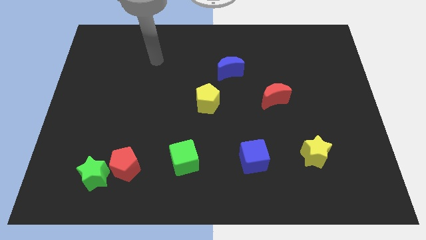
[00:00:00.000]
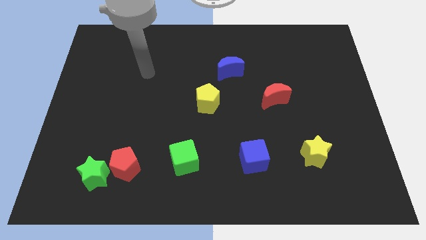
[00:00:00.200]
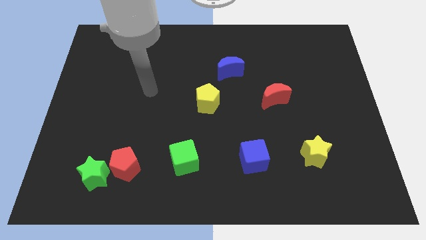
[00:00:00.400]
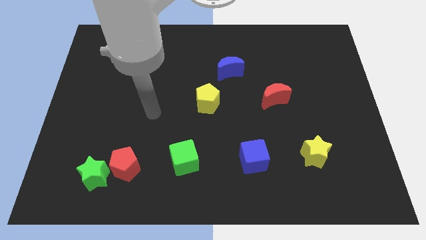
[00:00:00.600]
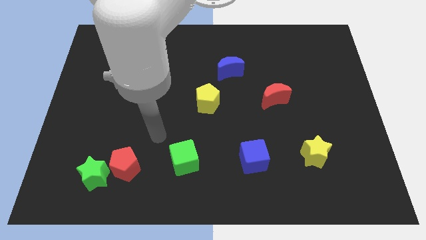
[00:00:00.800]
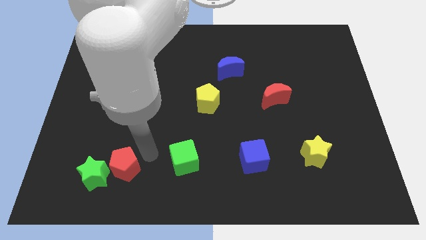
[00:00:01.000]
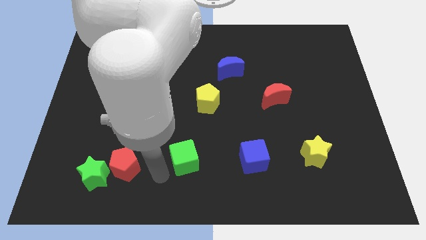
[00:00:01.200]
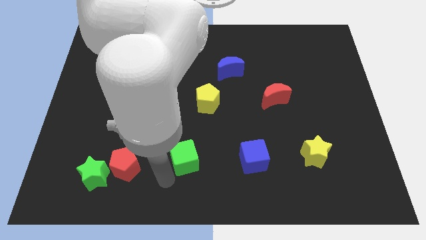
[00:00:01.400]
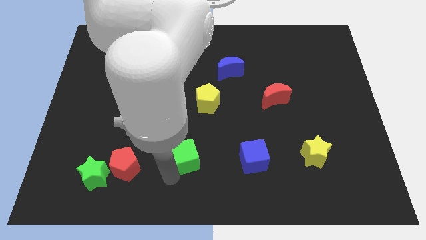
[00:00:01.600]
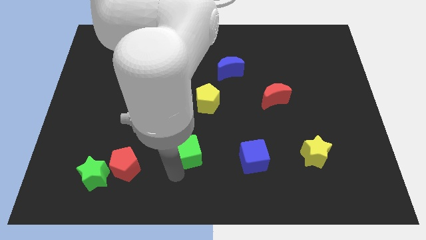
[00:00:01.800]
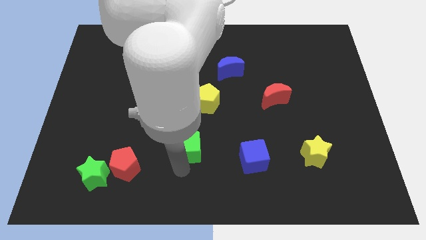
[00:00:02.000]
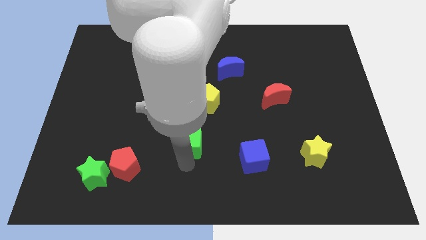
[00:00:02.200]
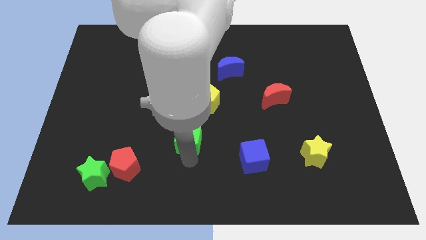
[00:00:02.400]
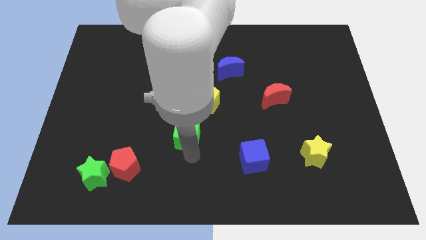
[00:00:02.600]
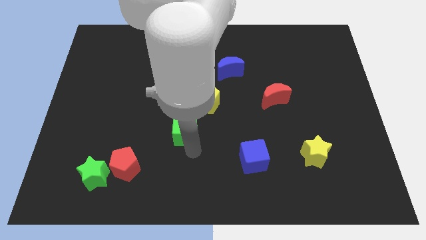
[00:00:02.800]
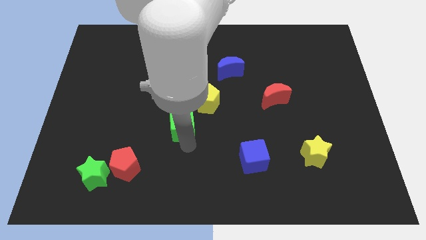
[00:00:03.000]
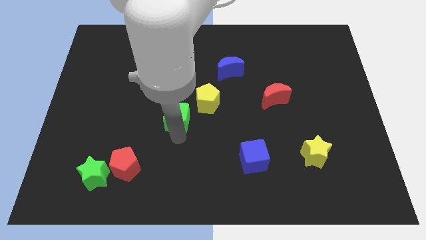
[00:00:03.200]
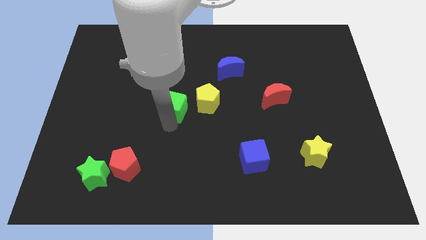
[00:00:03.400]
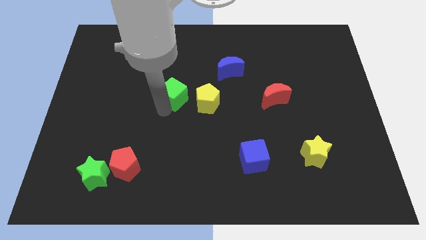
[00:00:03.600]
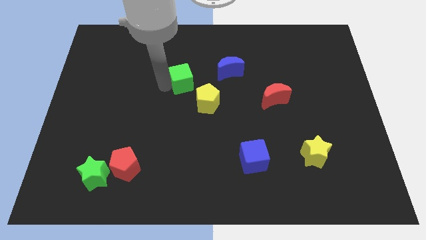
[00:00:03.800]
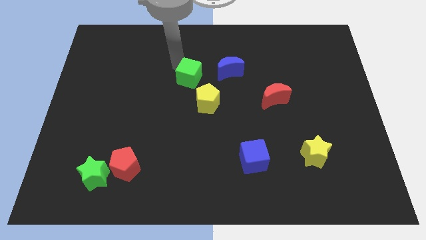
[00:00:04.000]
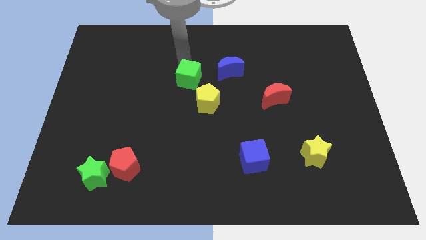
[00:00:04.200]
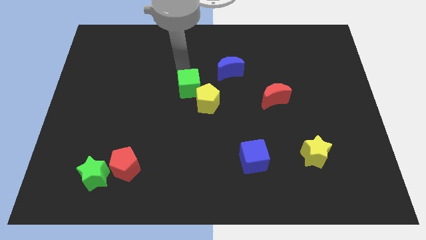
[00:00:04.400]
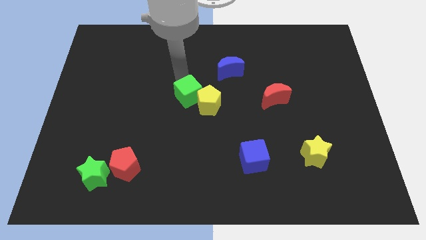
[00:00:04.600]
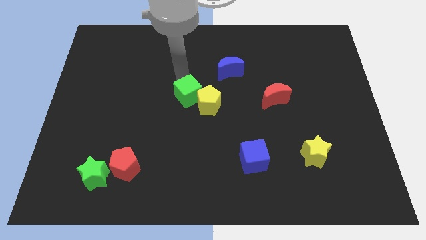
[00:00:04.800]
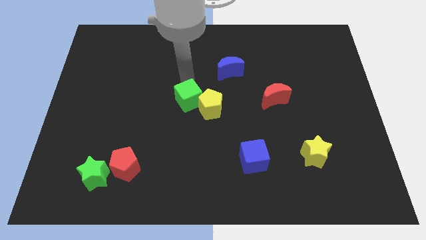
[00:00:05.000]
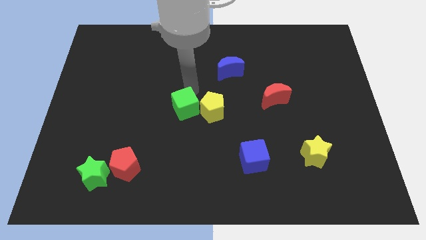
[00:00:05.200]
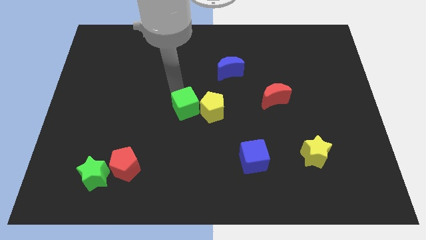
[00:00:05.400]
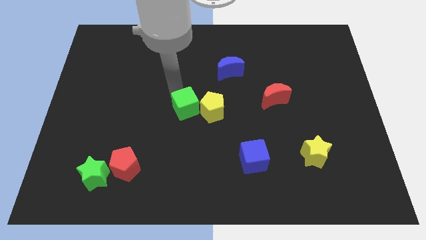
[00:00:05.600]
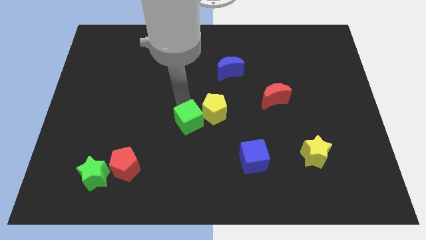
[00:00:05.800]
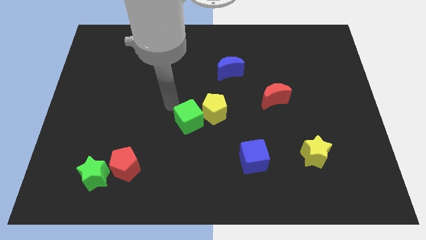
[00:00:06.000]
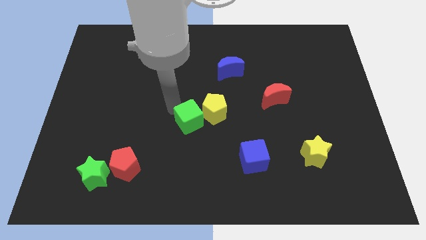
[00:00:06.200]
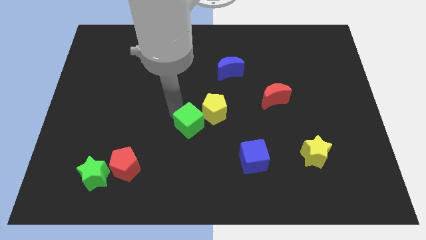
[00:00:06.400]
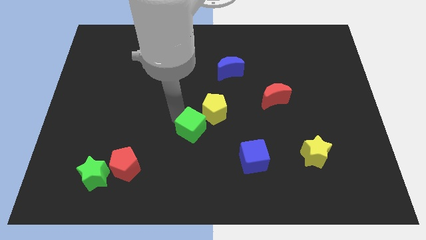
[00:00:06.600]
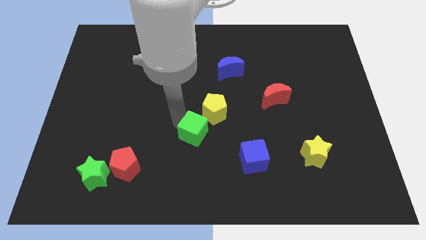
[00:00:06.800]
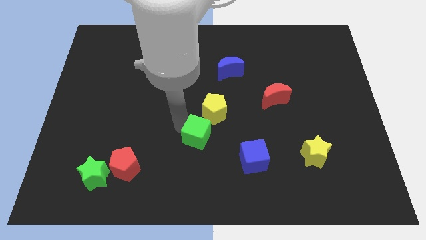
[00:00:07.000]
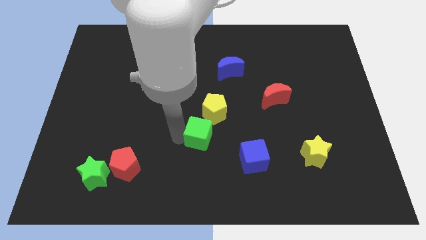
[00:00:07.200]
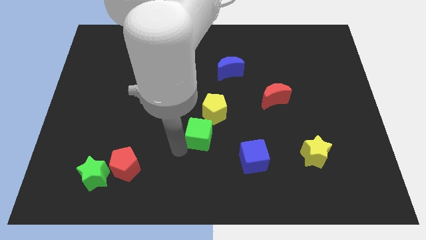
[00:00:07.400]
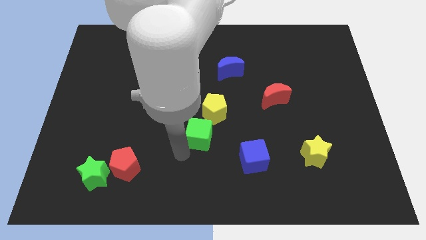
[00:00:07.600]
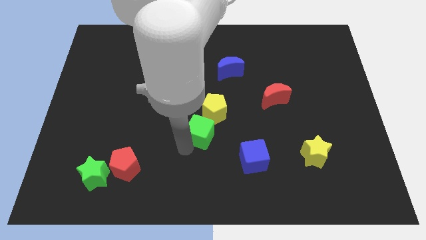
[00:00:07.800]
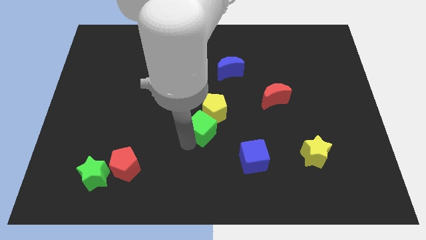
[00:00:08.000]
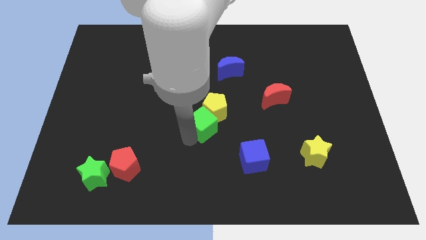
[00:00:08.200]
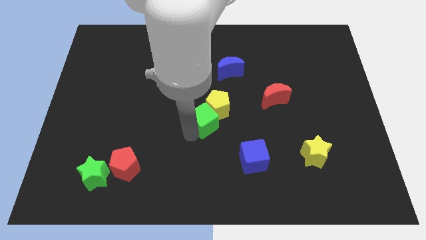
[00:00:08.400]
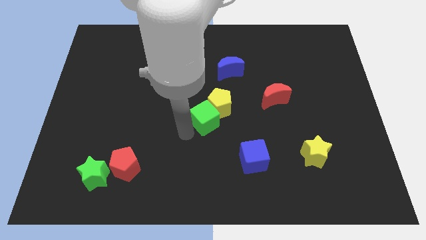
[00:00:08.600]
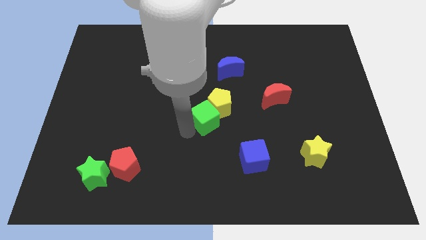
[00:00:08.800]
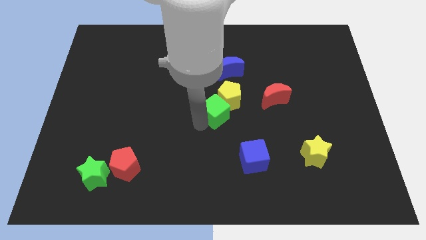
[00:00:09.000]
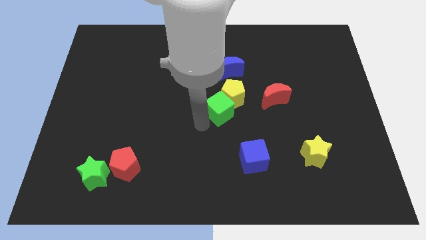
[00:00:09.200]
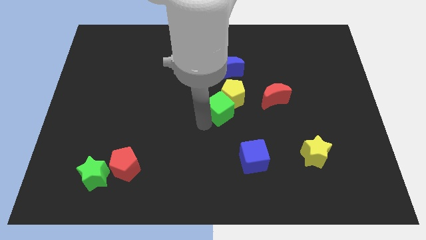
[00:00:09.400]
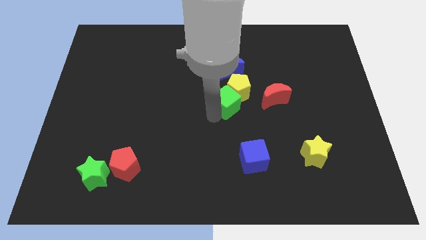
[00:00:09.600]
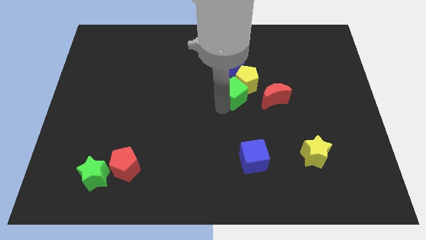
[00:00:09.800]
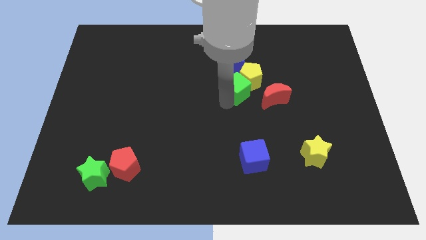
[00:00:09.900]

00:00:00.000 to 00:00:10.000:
move the green cube to the bottom right side of the blue moon

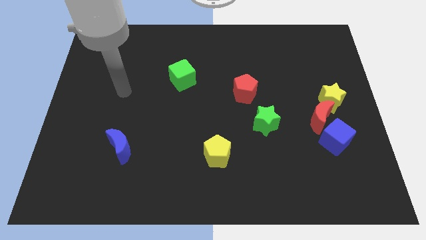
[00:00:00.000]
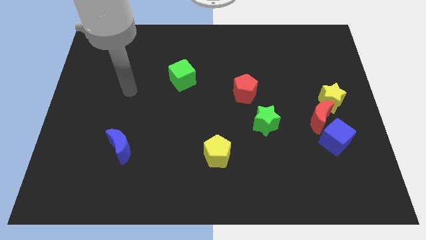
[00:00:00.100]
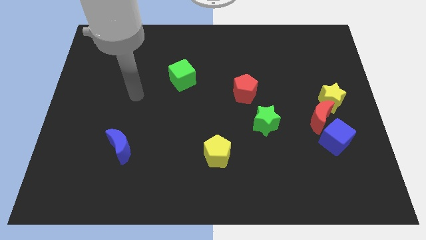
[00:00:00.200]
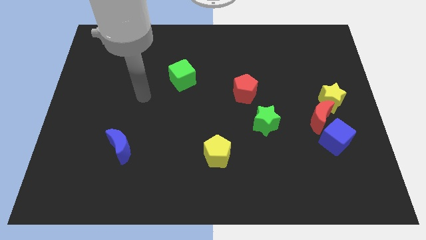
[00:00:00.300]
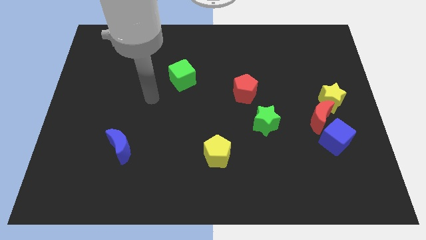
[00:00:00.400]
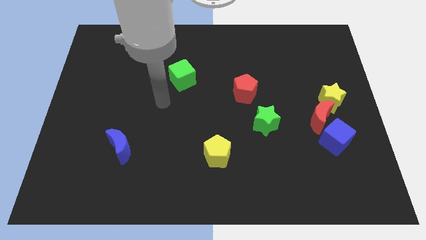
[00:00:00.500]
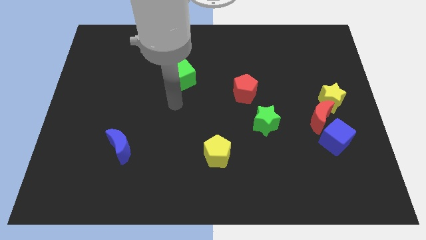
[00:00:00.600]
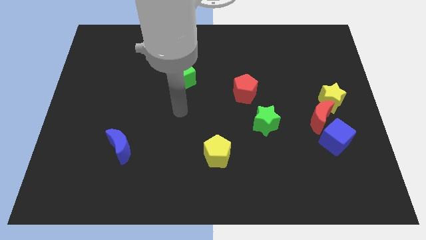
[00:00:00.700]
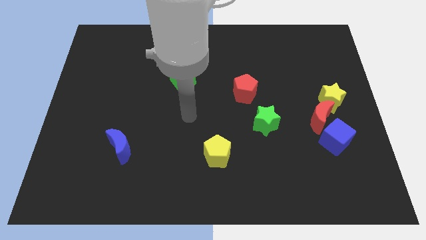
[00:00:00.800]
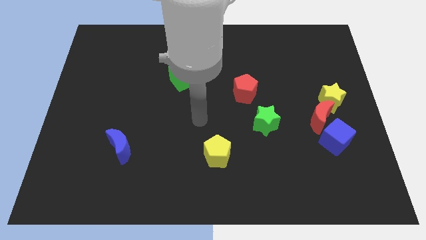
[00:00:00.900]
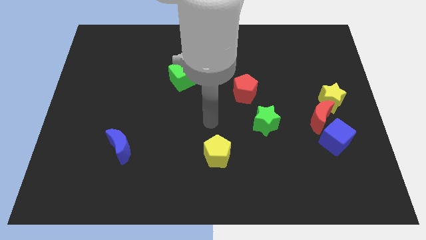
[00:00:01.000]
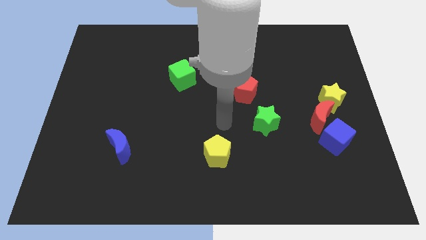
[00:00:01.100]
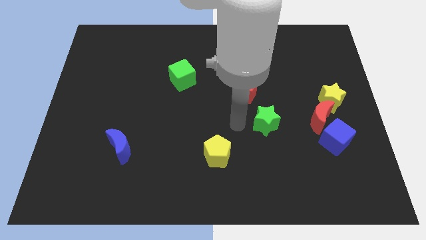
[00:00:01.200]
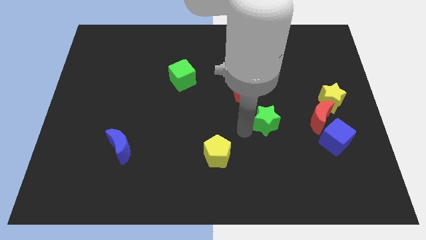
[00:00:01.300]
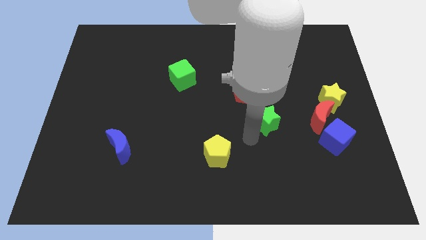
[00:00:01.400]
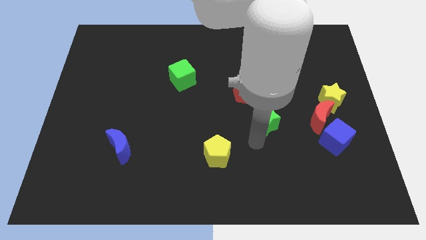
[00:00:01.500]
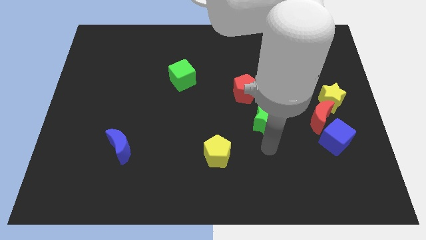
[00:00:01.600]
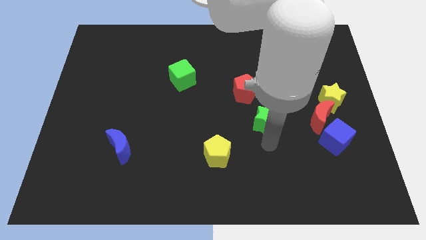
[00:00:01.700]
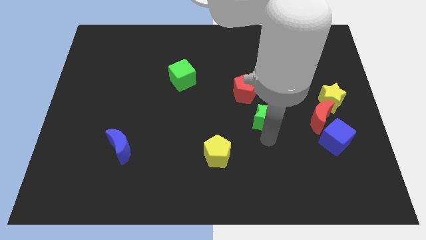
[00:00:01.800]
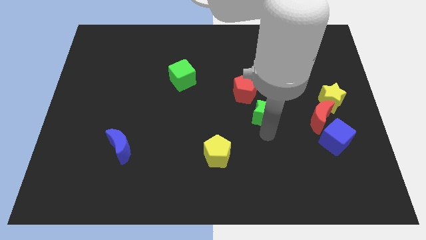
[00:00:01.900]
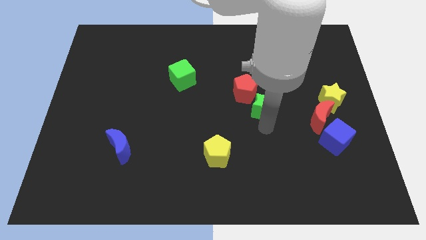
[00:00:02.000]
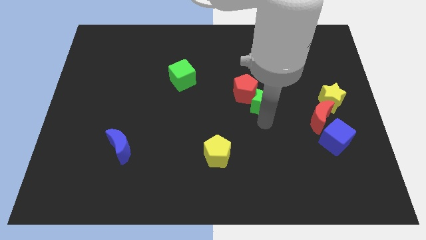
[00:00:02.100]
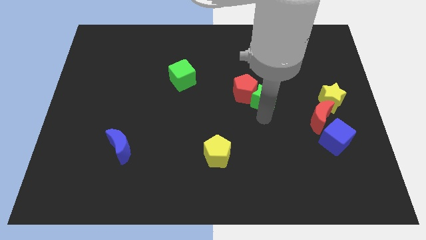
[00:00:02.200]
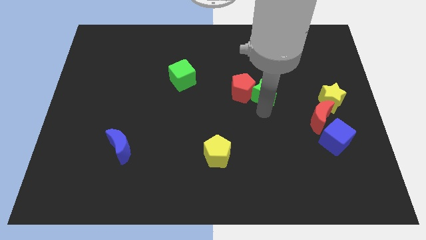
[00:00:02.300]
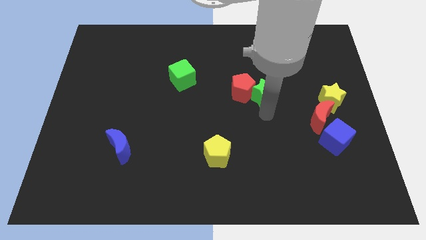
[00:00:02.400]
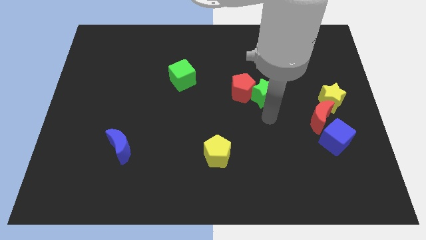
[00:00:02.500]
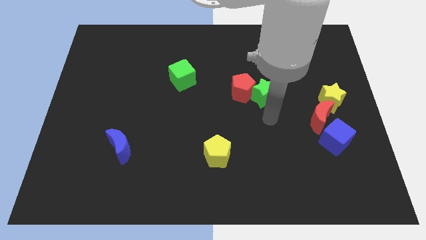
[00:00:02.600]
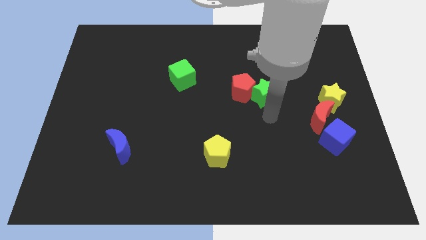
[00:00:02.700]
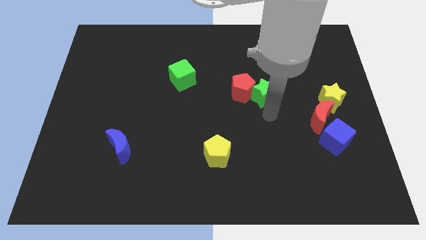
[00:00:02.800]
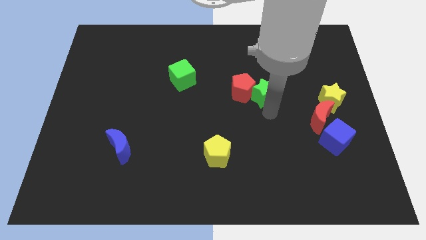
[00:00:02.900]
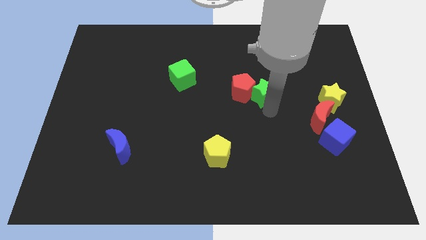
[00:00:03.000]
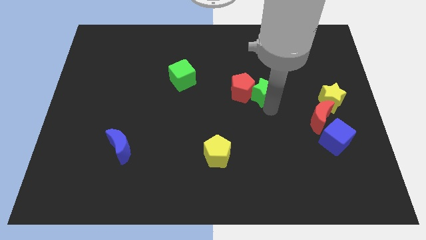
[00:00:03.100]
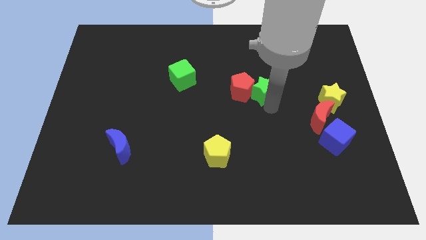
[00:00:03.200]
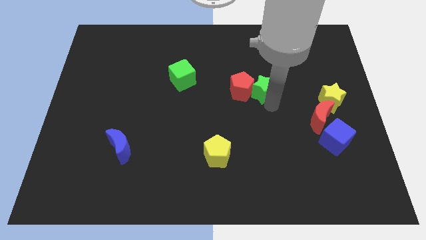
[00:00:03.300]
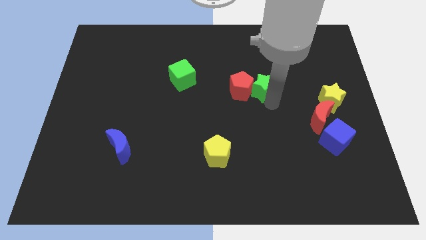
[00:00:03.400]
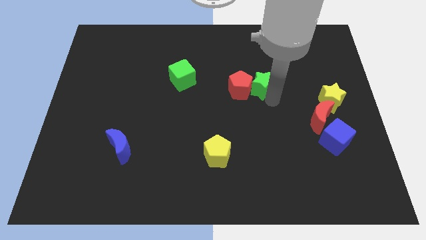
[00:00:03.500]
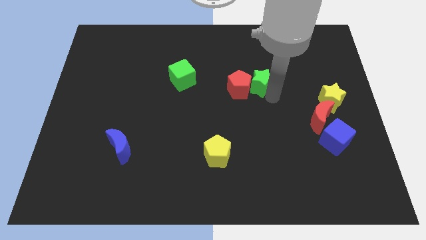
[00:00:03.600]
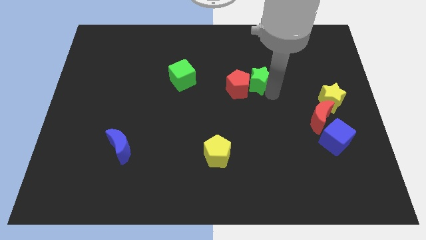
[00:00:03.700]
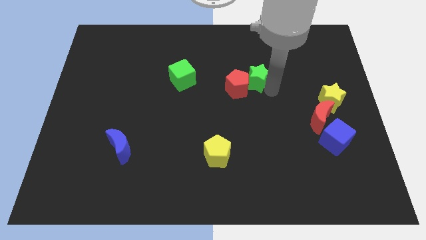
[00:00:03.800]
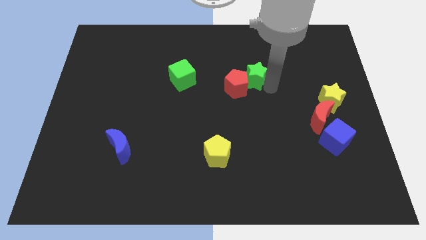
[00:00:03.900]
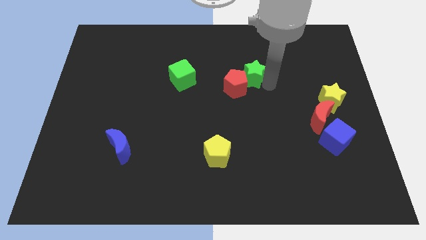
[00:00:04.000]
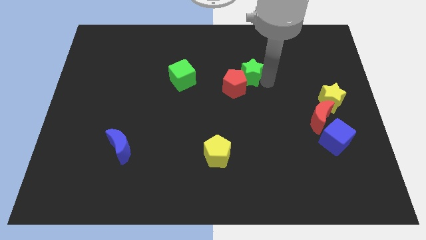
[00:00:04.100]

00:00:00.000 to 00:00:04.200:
put the green star to the top side of the red pentagon
